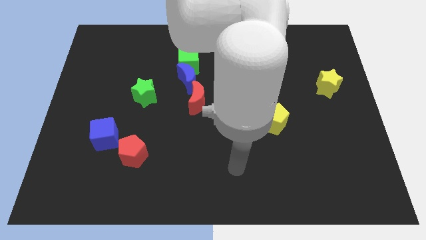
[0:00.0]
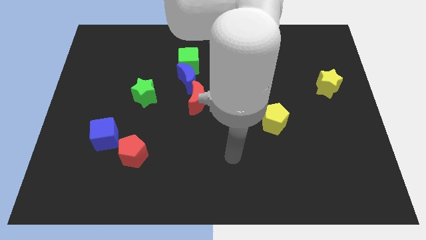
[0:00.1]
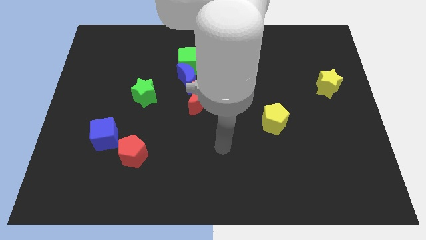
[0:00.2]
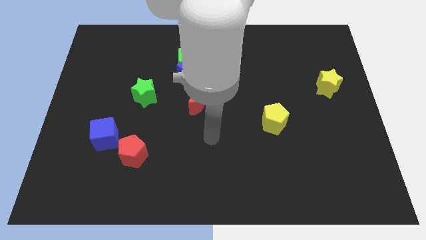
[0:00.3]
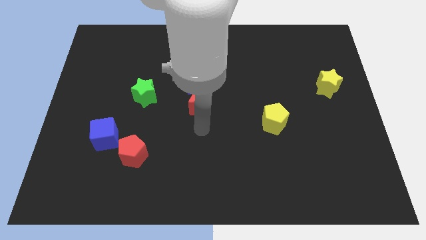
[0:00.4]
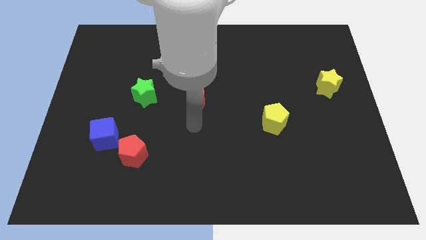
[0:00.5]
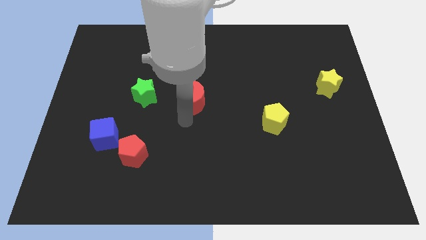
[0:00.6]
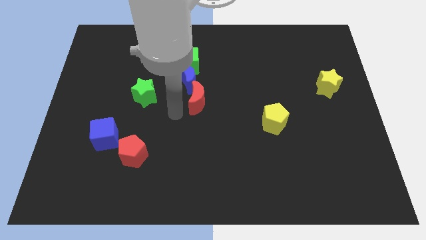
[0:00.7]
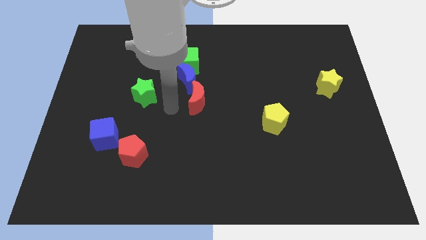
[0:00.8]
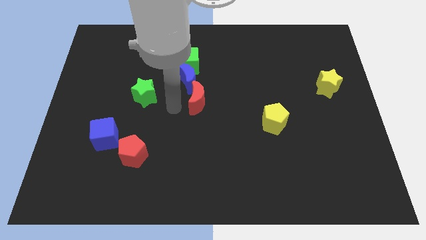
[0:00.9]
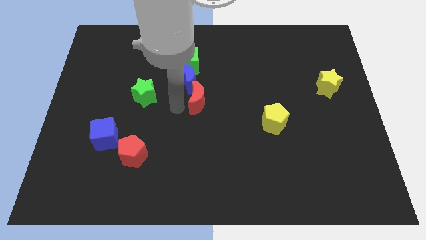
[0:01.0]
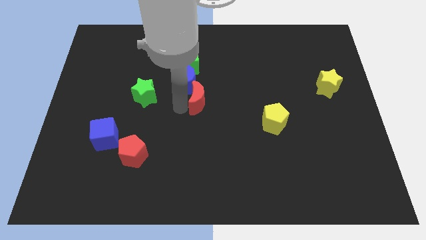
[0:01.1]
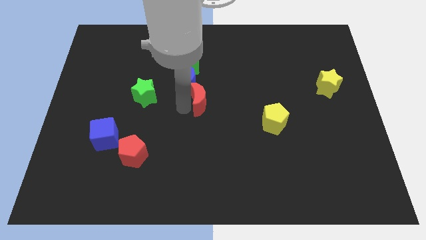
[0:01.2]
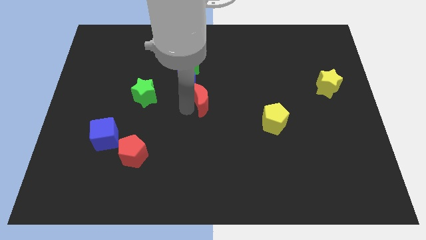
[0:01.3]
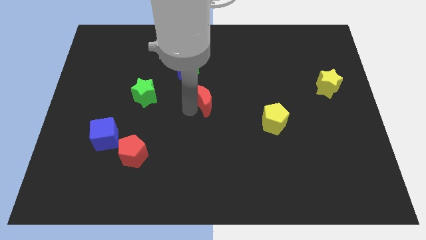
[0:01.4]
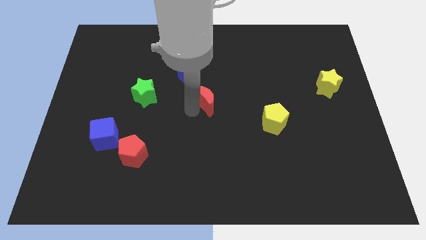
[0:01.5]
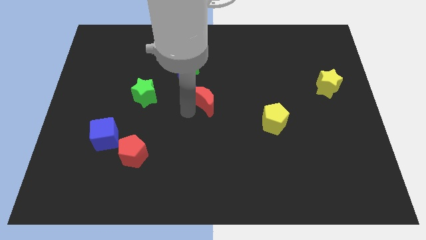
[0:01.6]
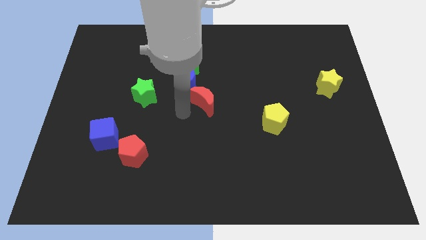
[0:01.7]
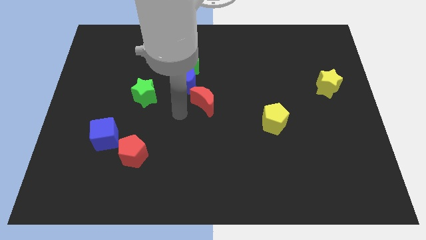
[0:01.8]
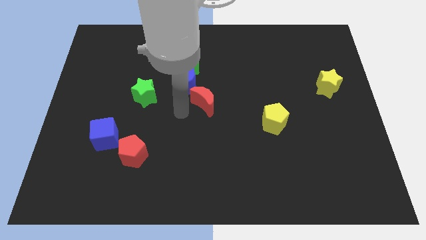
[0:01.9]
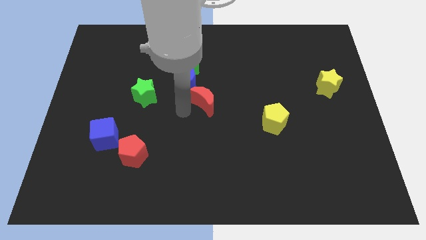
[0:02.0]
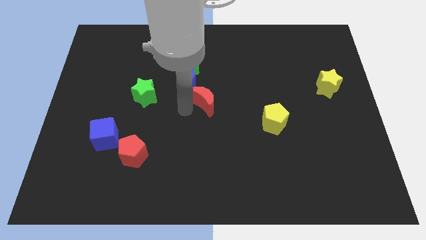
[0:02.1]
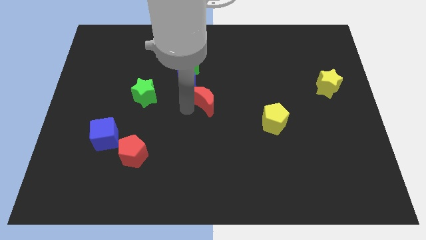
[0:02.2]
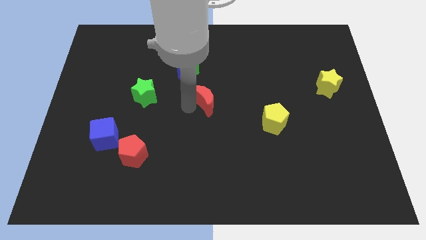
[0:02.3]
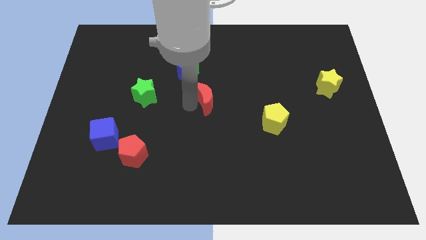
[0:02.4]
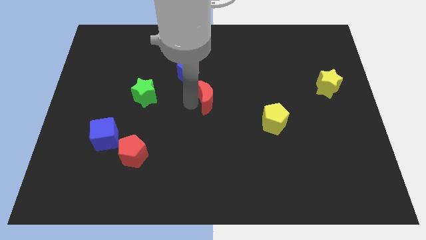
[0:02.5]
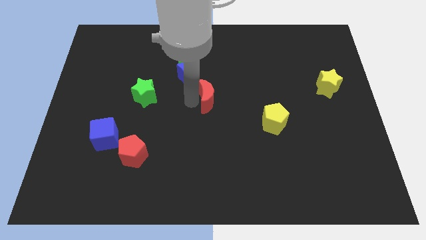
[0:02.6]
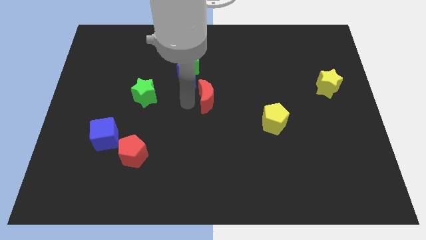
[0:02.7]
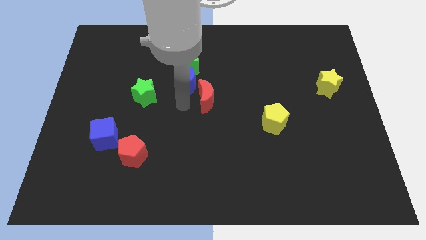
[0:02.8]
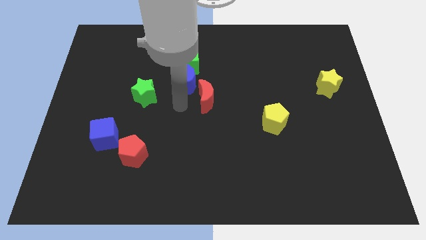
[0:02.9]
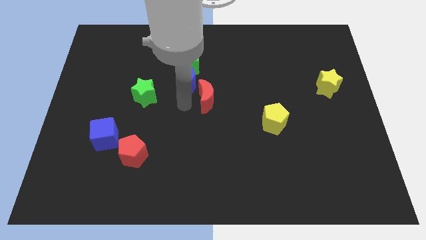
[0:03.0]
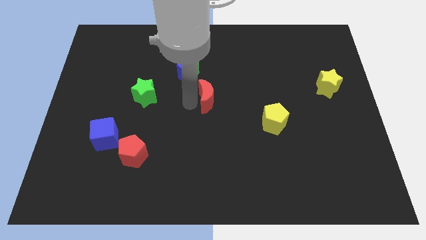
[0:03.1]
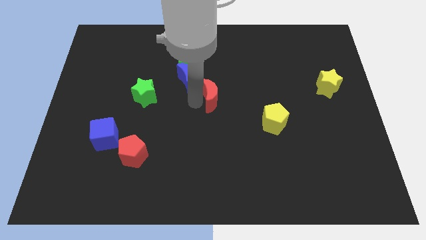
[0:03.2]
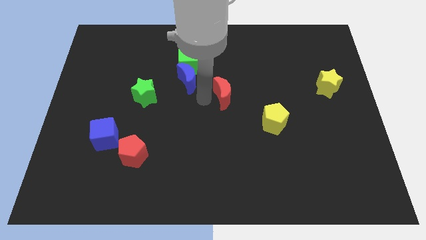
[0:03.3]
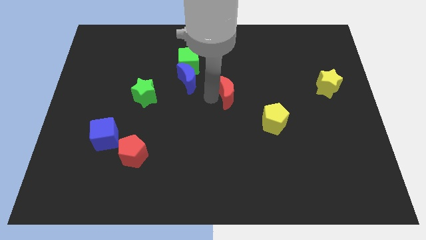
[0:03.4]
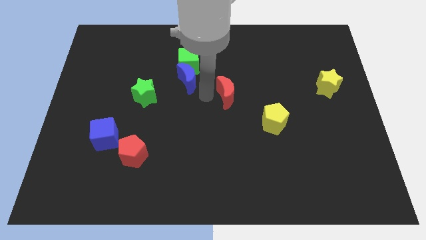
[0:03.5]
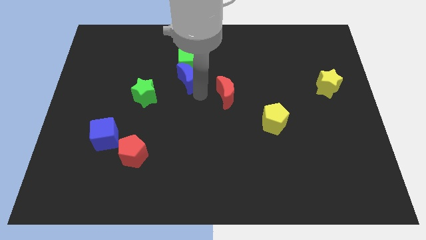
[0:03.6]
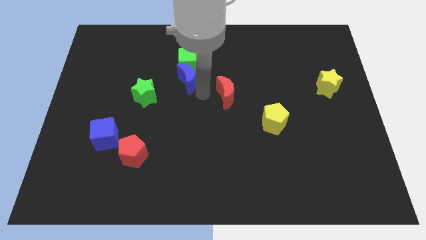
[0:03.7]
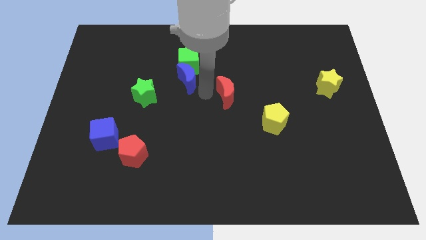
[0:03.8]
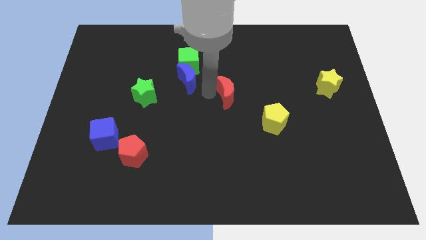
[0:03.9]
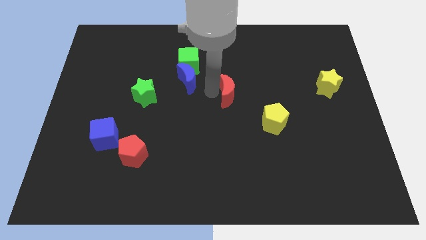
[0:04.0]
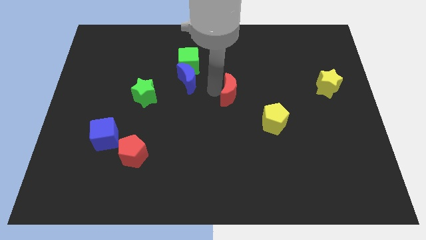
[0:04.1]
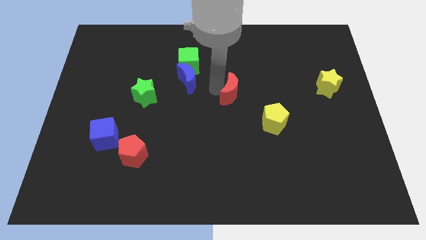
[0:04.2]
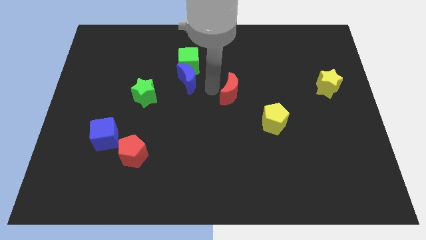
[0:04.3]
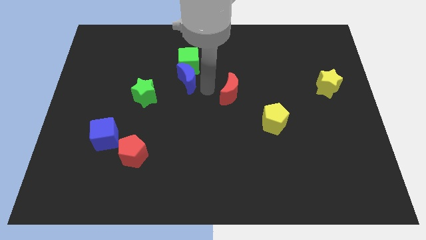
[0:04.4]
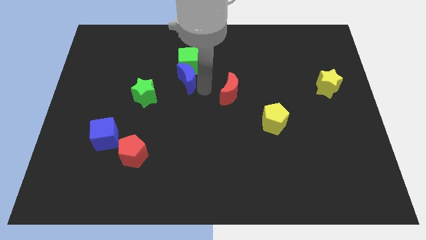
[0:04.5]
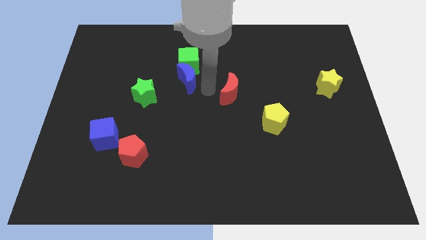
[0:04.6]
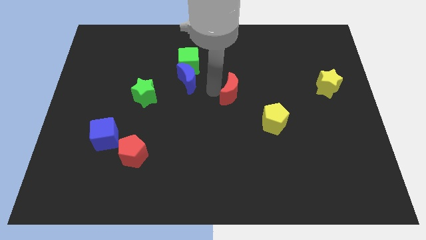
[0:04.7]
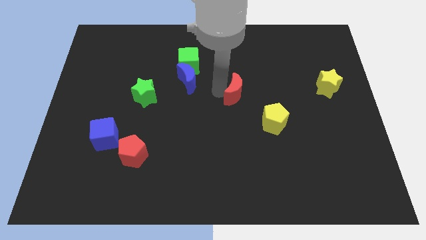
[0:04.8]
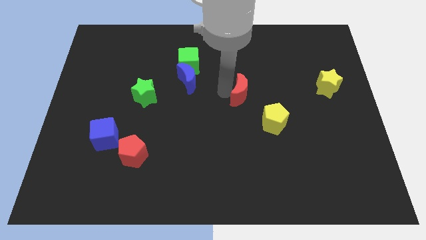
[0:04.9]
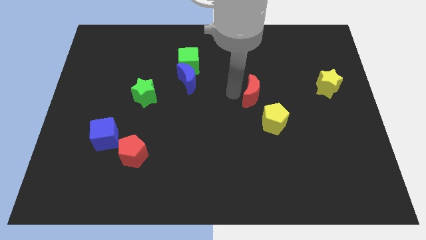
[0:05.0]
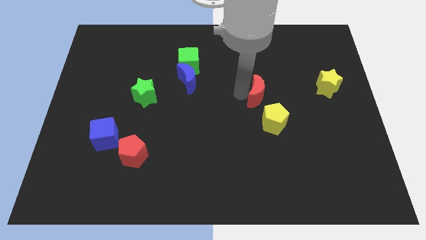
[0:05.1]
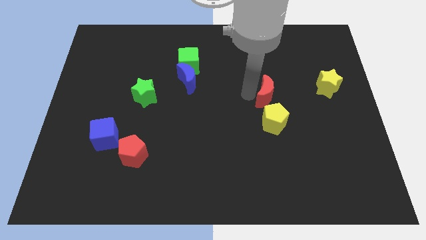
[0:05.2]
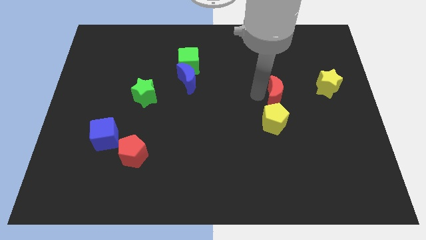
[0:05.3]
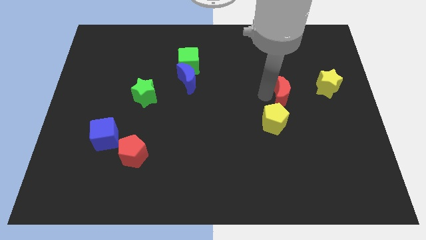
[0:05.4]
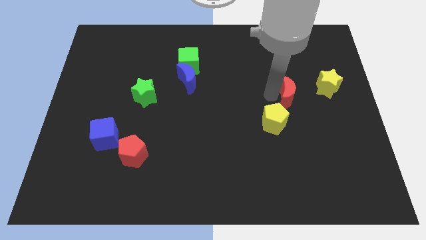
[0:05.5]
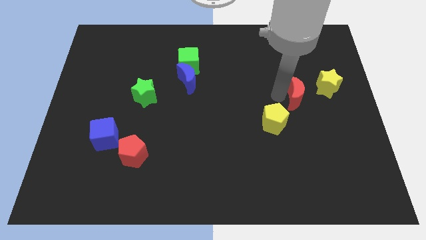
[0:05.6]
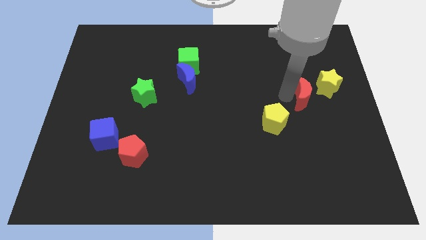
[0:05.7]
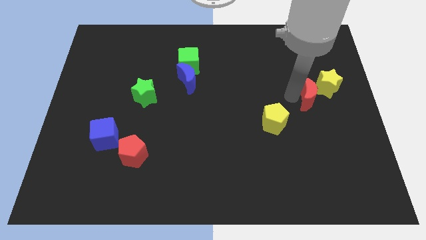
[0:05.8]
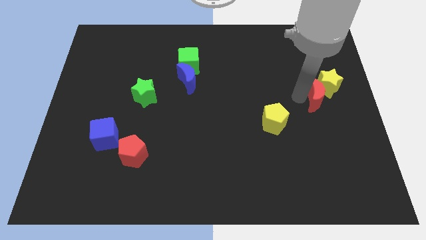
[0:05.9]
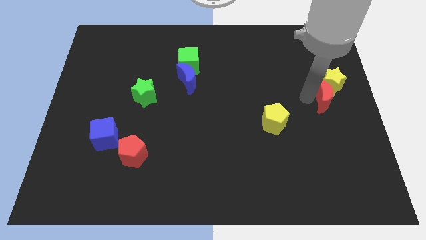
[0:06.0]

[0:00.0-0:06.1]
move the red moon to the right side
